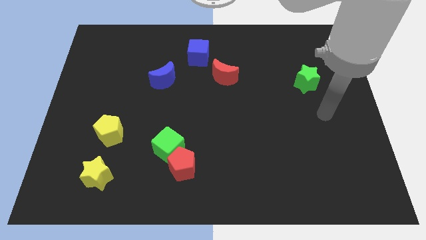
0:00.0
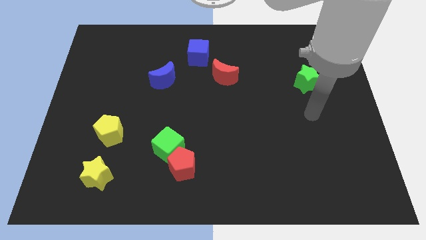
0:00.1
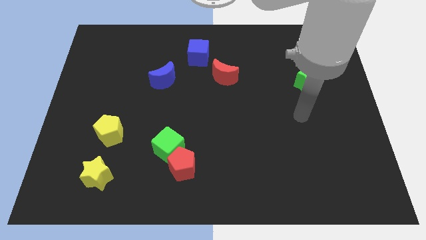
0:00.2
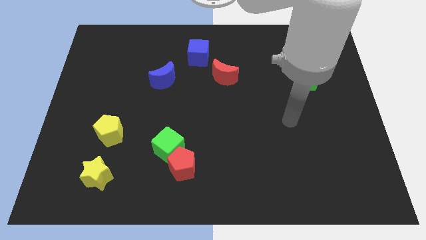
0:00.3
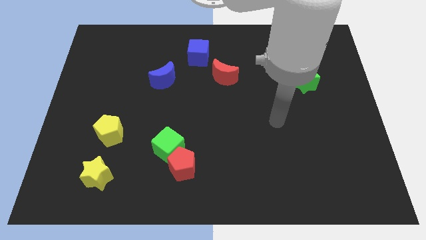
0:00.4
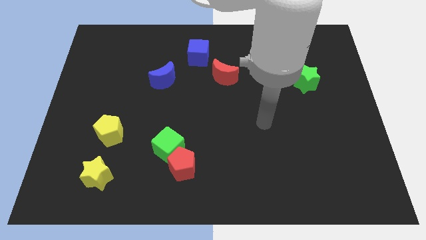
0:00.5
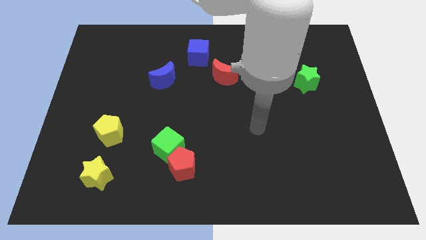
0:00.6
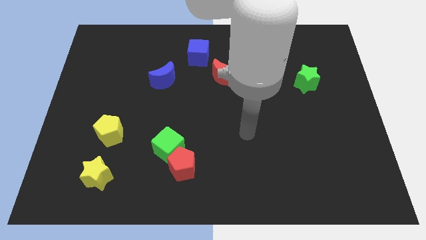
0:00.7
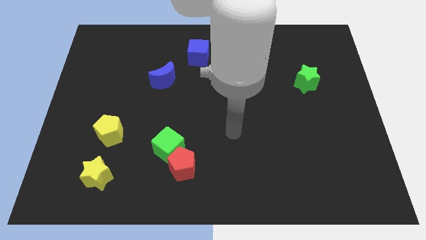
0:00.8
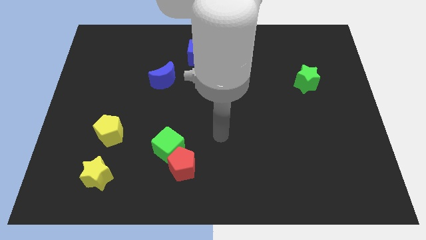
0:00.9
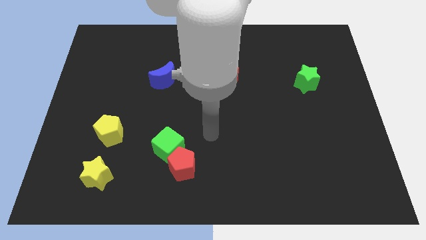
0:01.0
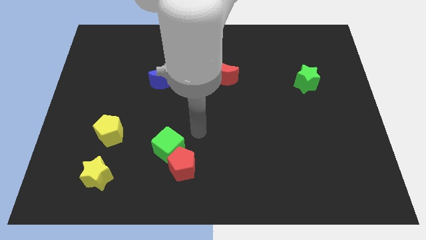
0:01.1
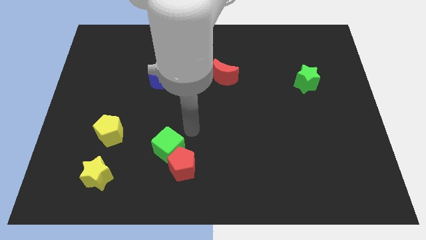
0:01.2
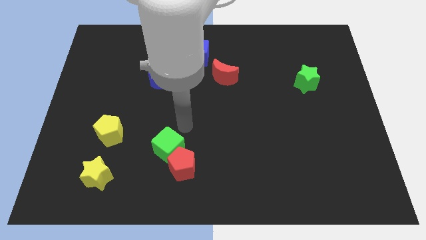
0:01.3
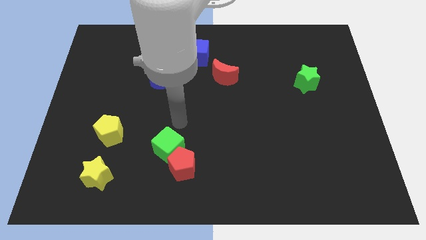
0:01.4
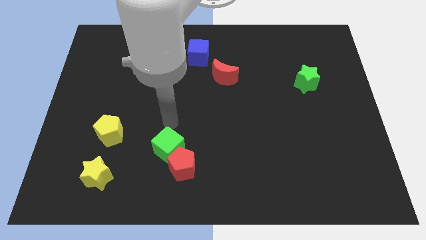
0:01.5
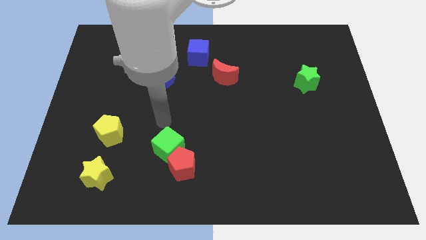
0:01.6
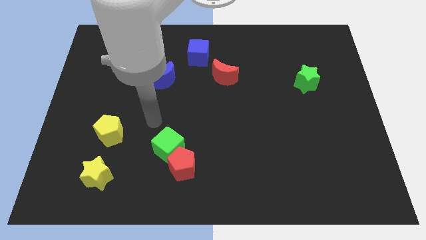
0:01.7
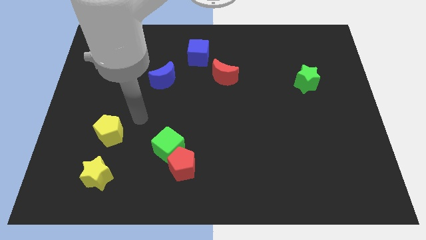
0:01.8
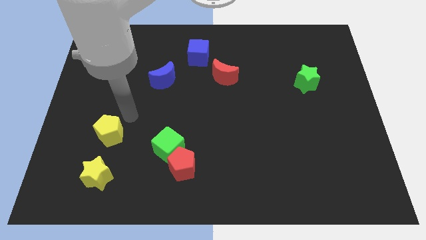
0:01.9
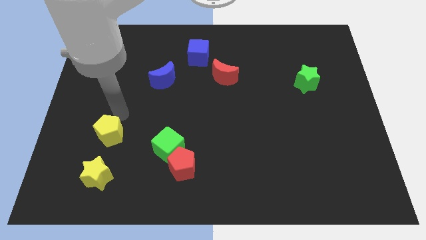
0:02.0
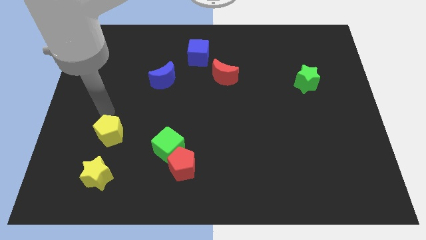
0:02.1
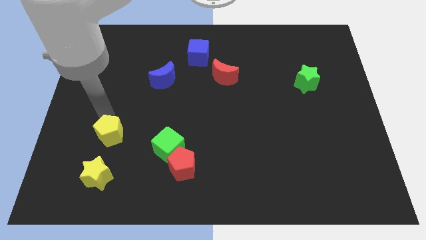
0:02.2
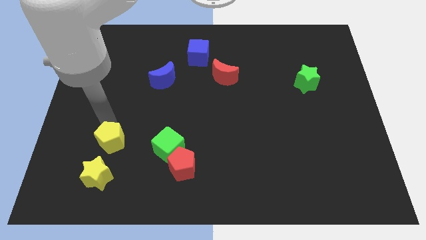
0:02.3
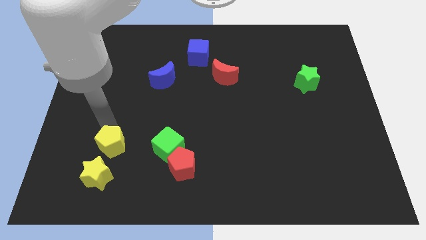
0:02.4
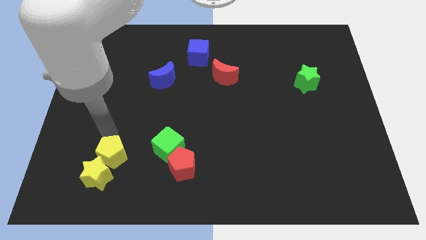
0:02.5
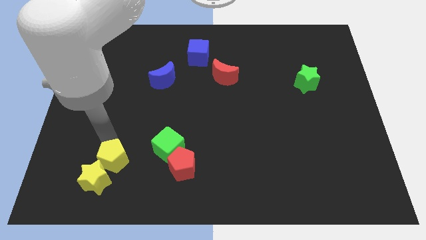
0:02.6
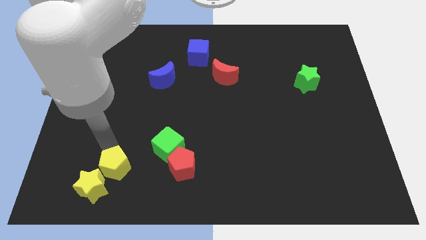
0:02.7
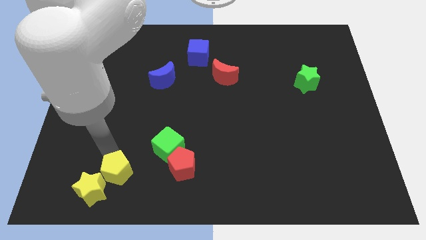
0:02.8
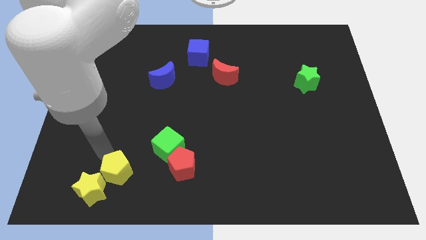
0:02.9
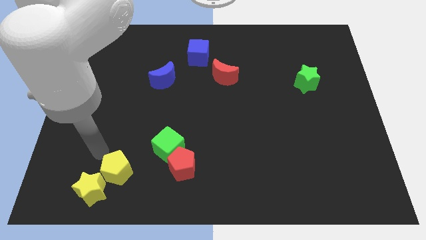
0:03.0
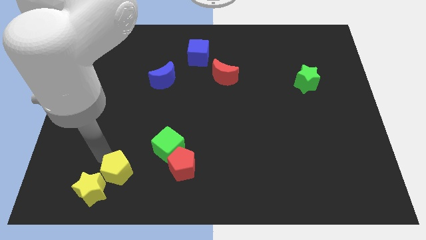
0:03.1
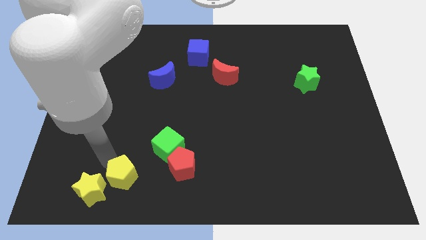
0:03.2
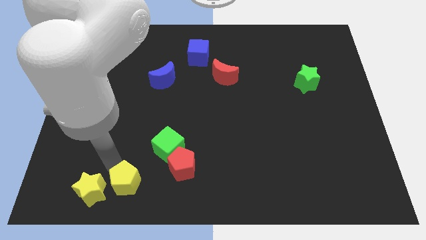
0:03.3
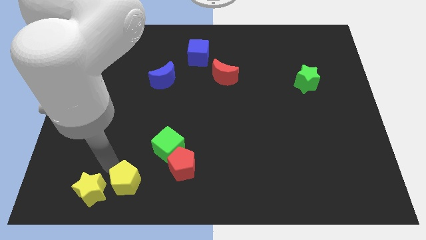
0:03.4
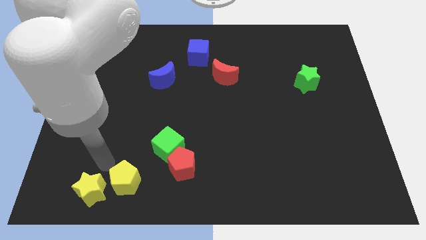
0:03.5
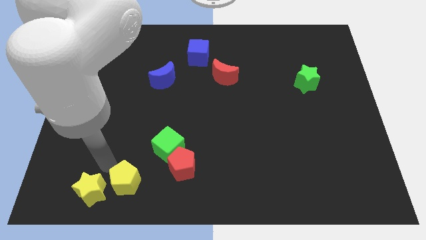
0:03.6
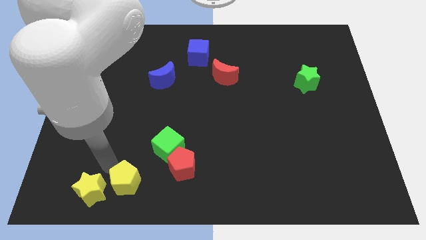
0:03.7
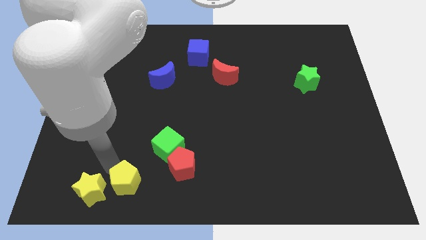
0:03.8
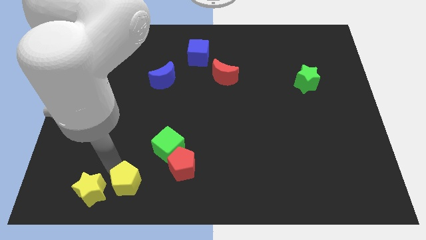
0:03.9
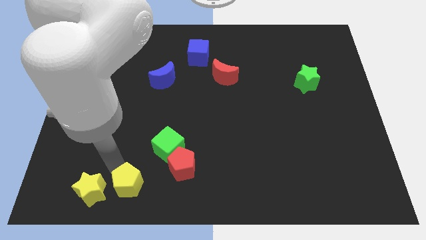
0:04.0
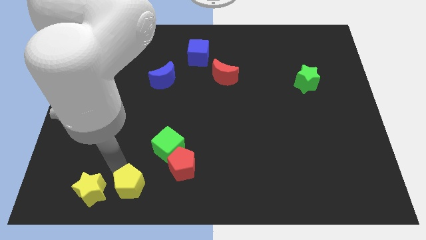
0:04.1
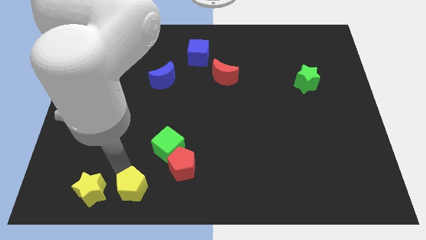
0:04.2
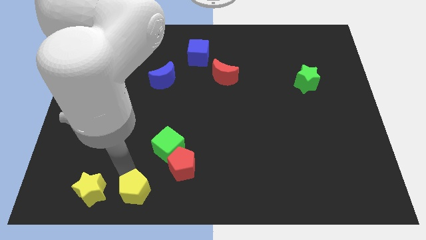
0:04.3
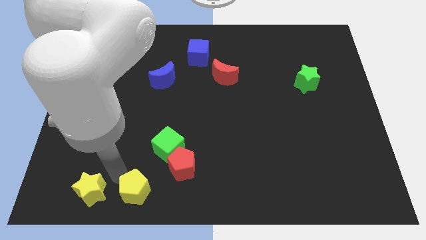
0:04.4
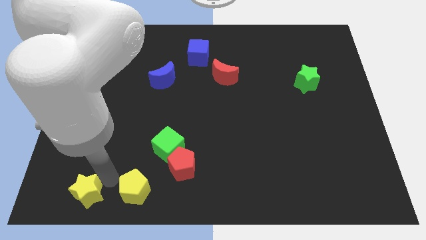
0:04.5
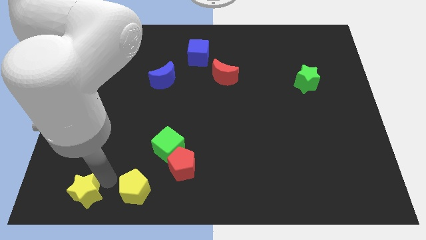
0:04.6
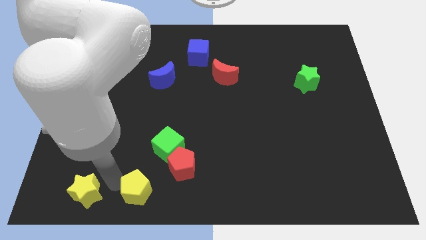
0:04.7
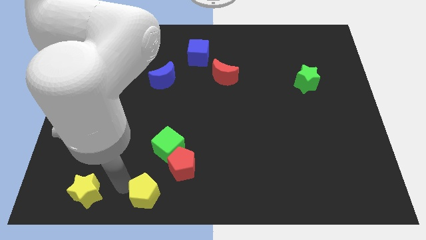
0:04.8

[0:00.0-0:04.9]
slide the yellow pentagon to the bottom side

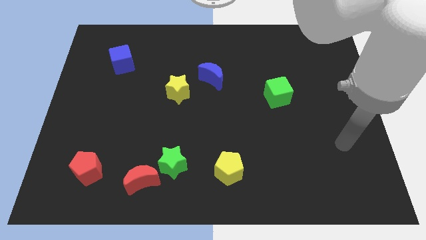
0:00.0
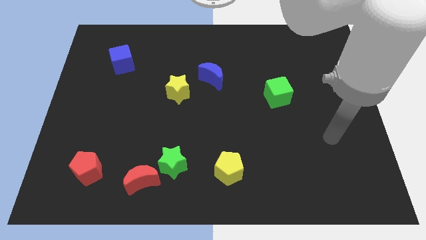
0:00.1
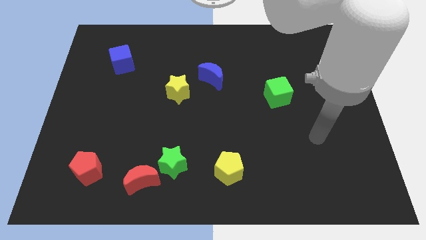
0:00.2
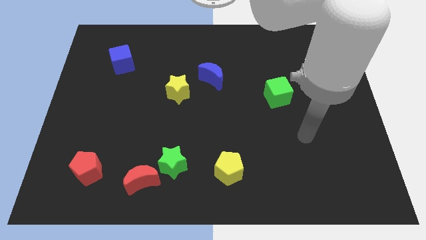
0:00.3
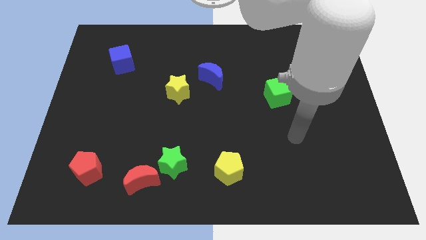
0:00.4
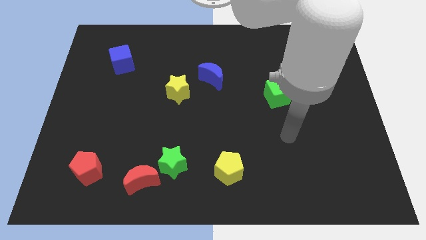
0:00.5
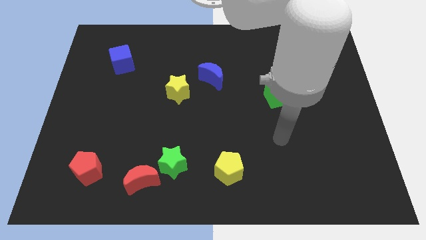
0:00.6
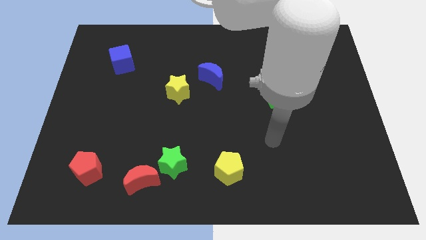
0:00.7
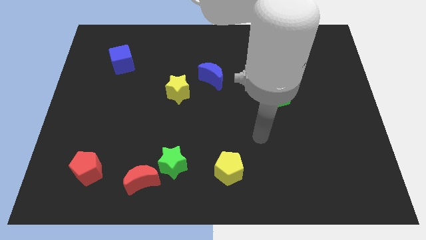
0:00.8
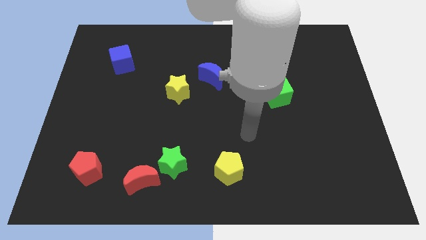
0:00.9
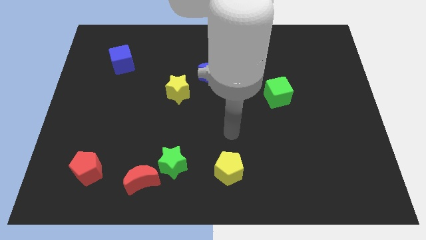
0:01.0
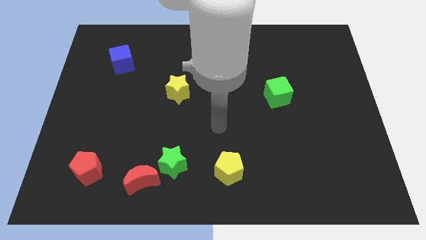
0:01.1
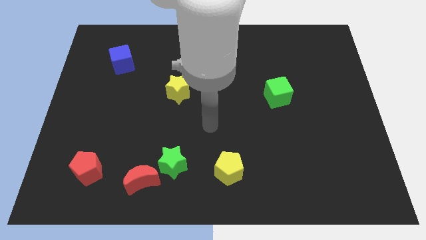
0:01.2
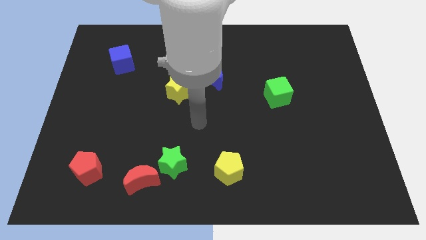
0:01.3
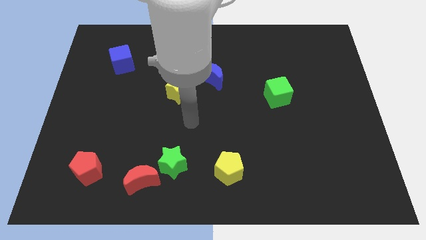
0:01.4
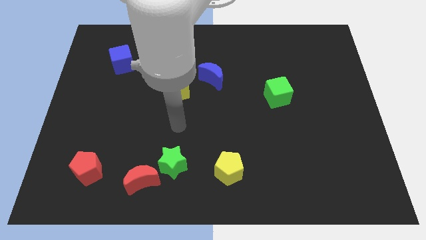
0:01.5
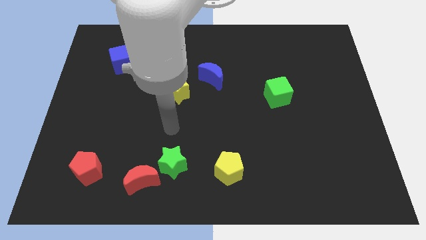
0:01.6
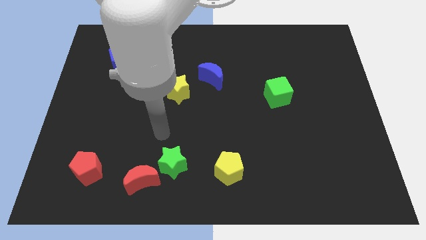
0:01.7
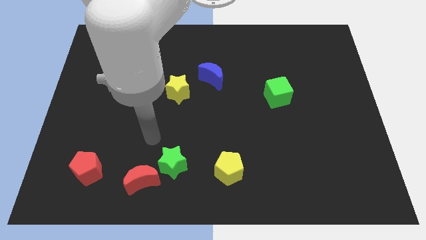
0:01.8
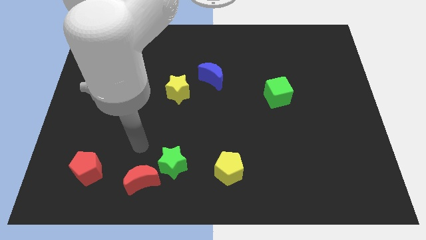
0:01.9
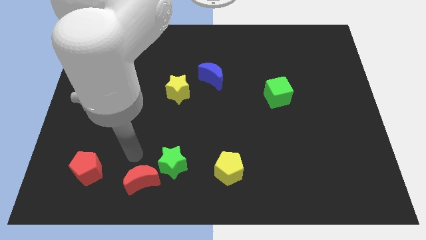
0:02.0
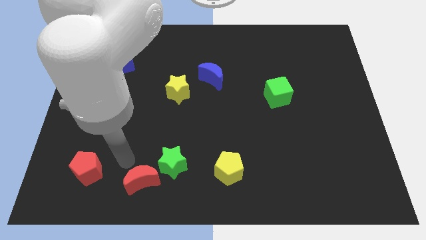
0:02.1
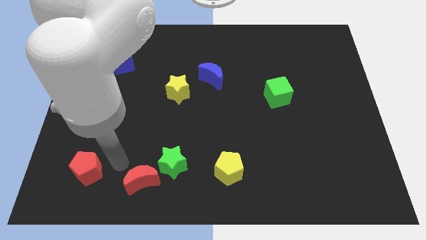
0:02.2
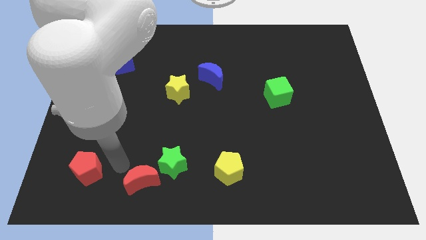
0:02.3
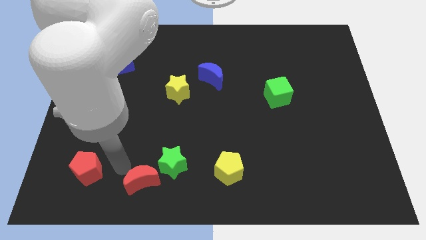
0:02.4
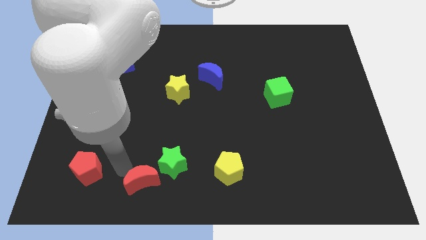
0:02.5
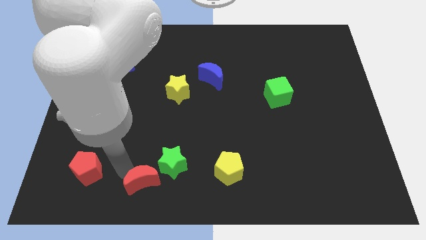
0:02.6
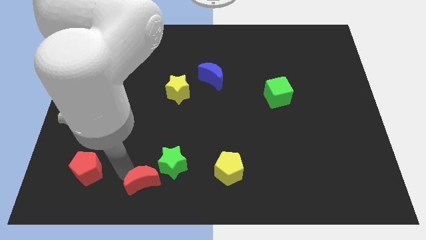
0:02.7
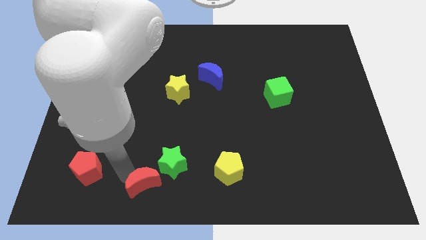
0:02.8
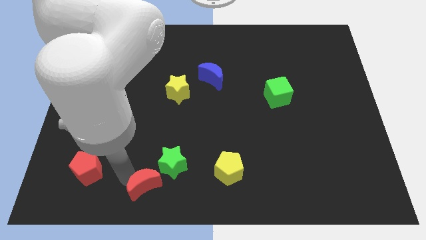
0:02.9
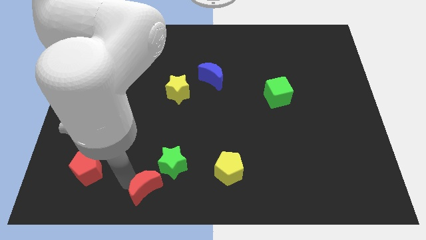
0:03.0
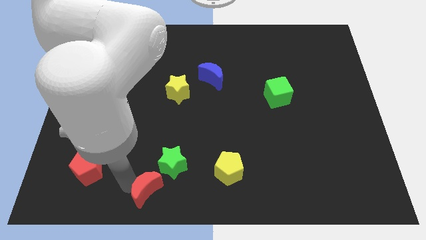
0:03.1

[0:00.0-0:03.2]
put the red moon to the bottom
